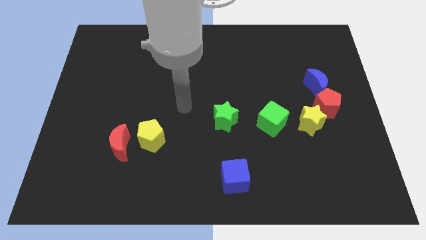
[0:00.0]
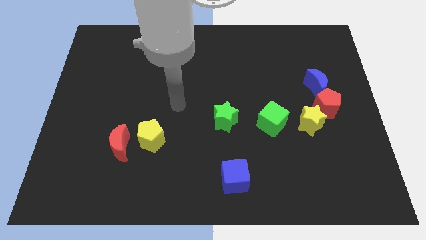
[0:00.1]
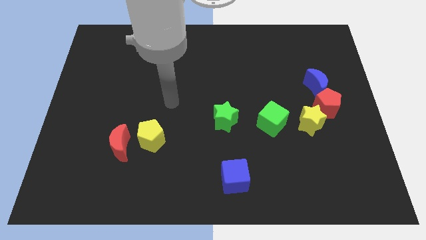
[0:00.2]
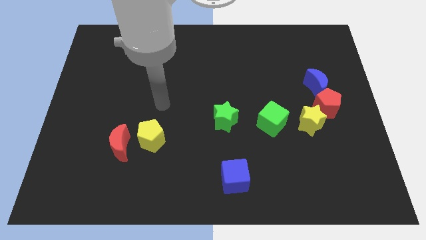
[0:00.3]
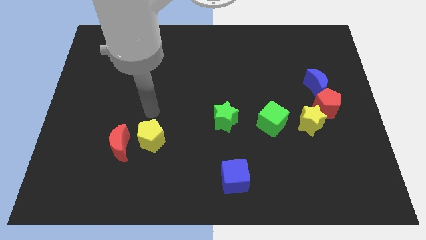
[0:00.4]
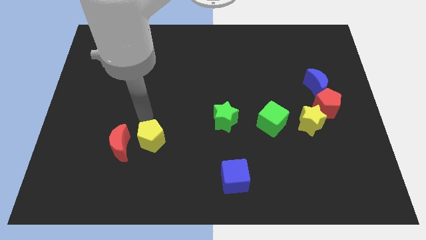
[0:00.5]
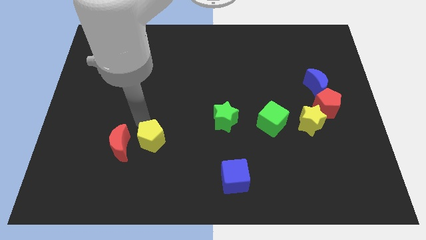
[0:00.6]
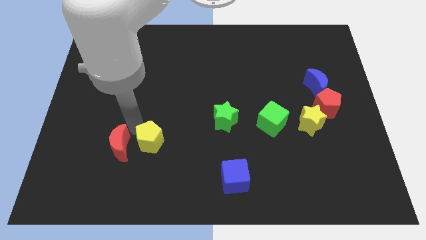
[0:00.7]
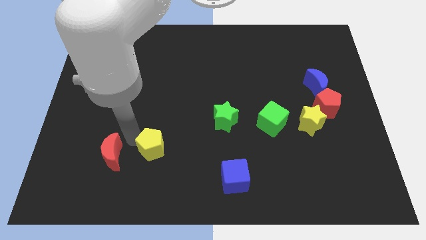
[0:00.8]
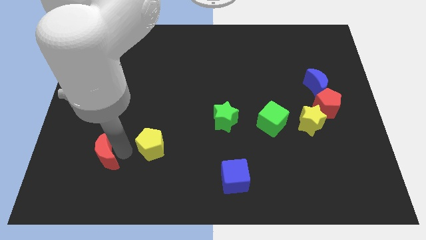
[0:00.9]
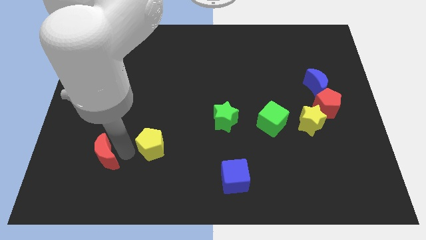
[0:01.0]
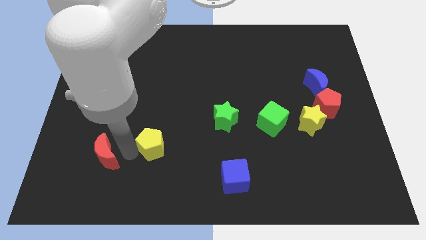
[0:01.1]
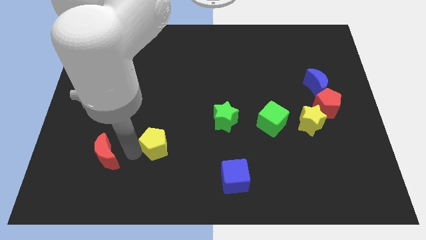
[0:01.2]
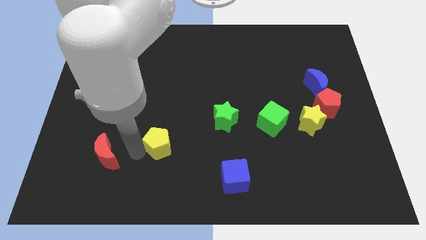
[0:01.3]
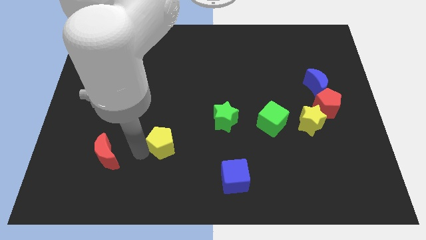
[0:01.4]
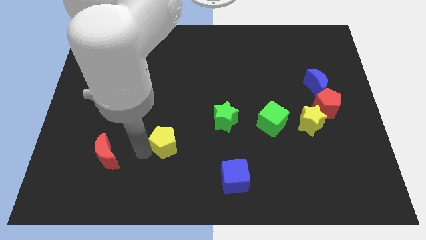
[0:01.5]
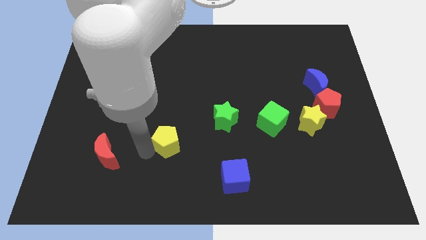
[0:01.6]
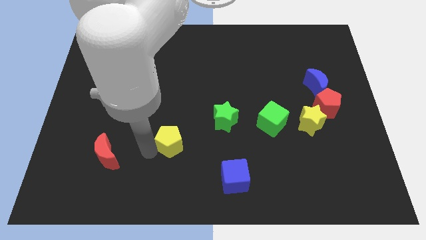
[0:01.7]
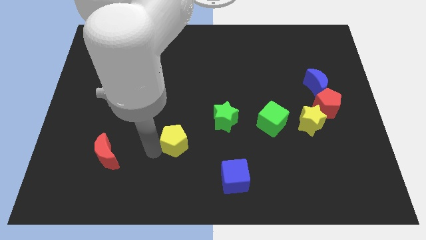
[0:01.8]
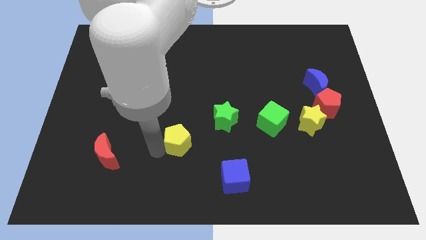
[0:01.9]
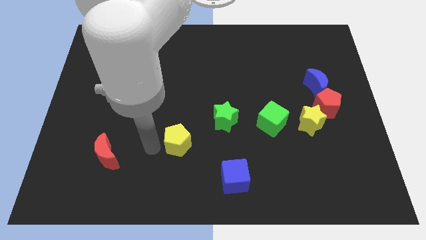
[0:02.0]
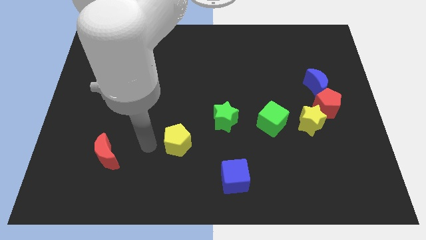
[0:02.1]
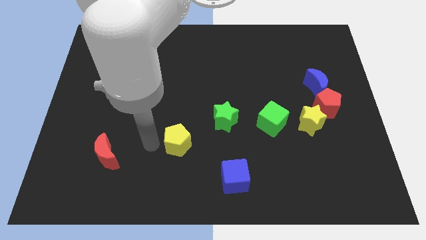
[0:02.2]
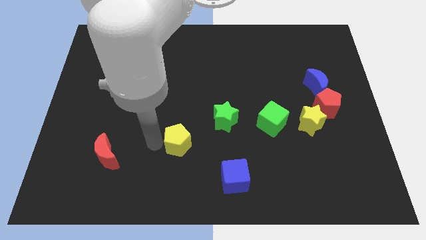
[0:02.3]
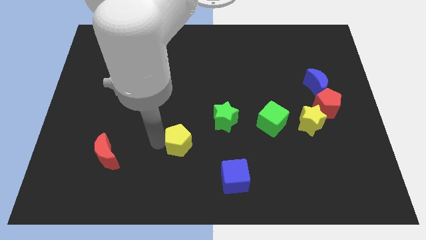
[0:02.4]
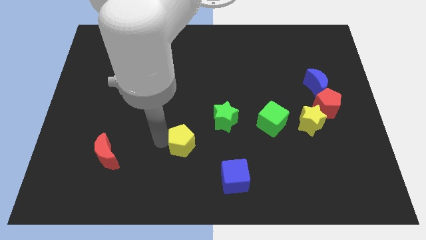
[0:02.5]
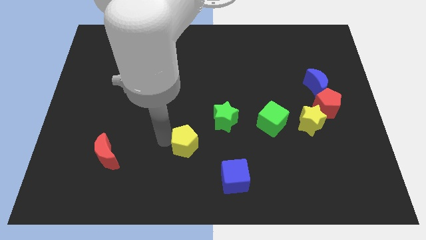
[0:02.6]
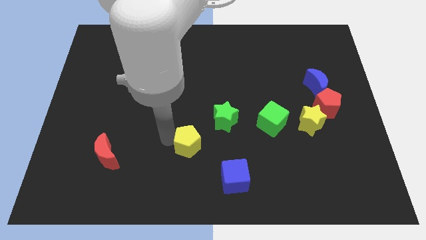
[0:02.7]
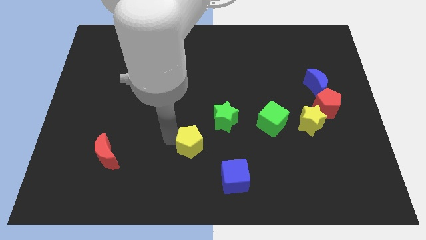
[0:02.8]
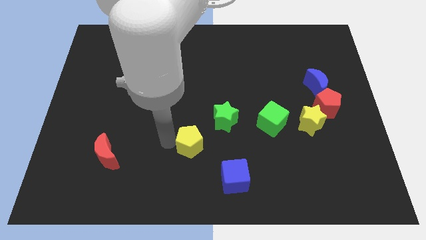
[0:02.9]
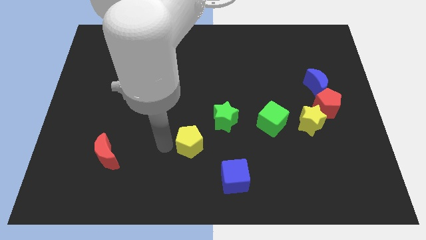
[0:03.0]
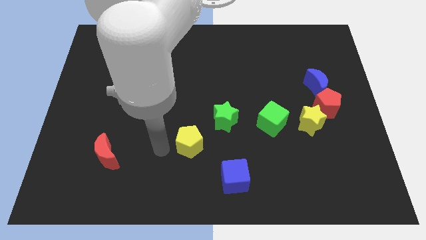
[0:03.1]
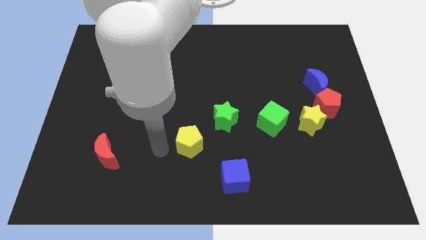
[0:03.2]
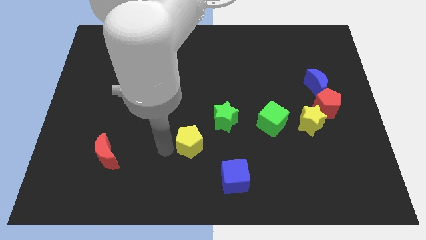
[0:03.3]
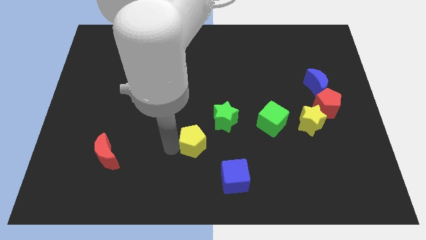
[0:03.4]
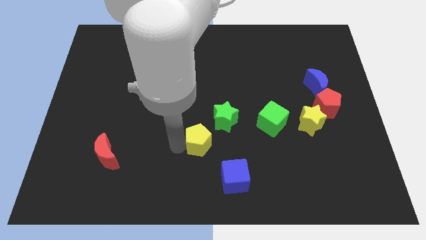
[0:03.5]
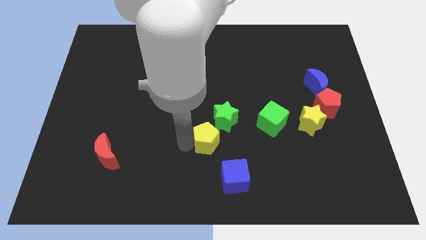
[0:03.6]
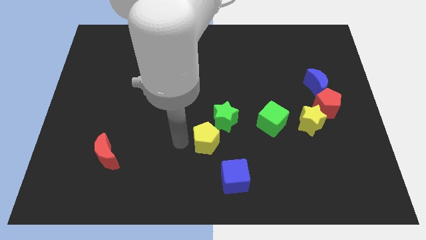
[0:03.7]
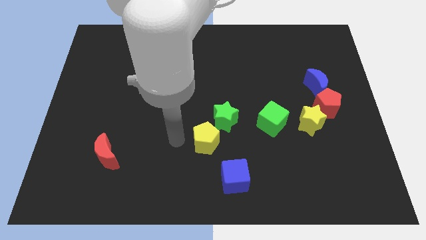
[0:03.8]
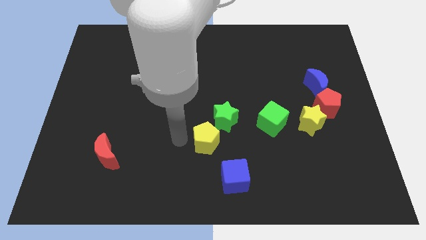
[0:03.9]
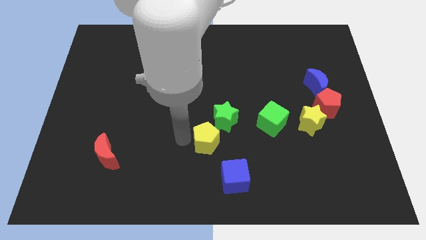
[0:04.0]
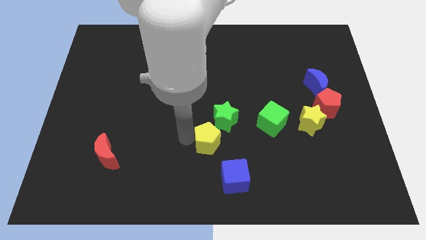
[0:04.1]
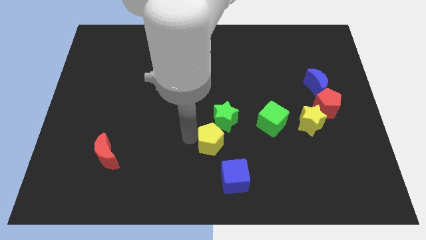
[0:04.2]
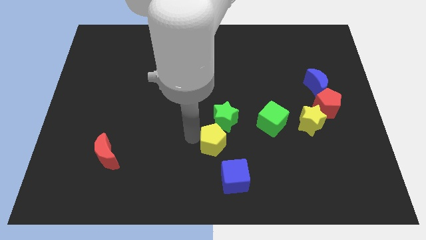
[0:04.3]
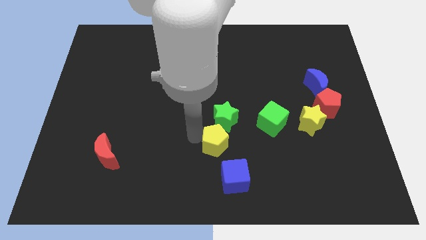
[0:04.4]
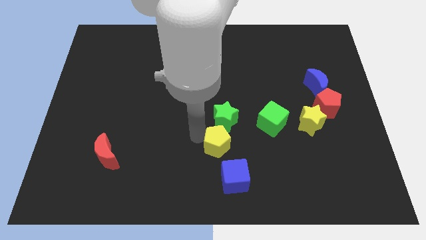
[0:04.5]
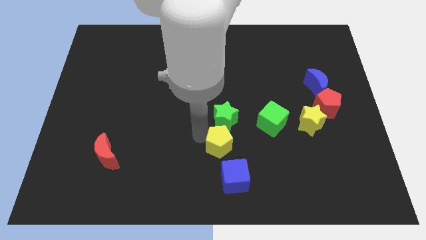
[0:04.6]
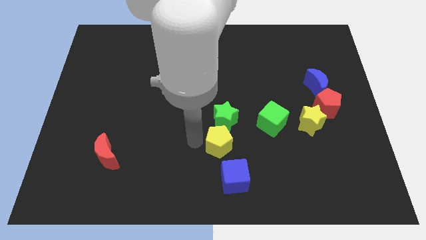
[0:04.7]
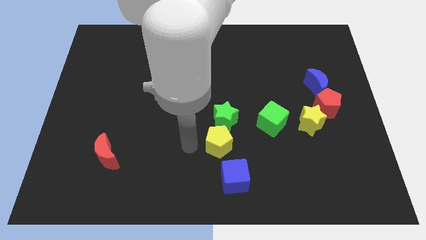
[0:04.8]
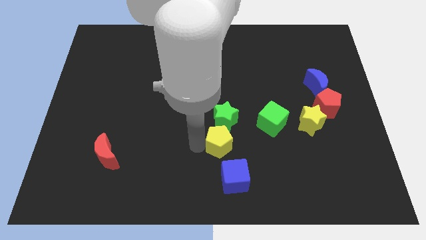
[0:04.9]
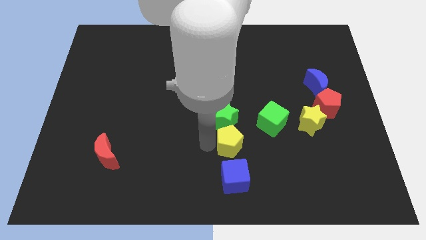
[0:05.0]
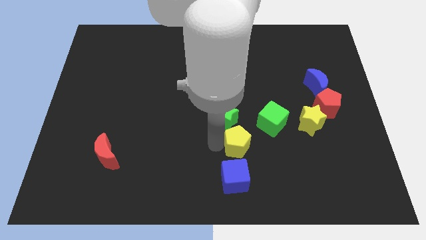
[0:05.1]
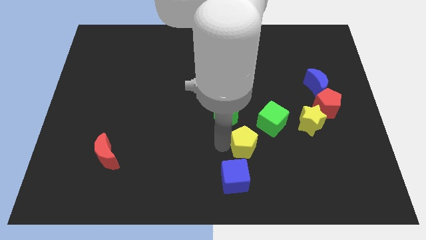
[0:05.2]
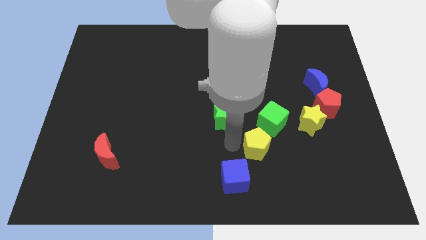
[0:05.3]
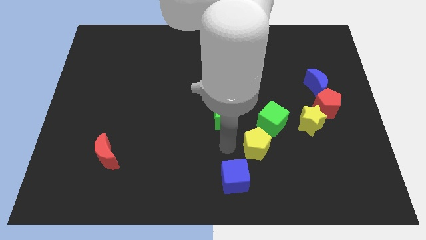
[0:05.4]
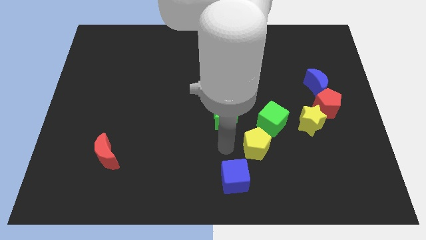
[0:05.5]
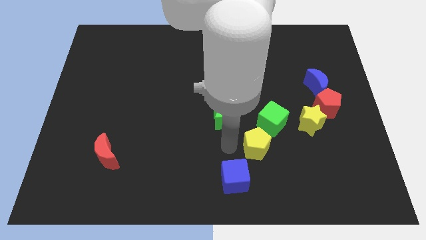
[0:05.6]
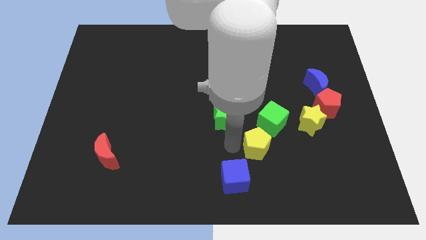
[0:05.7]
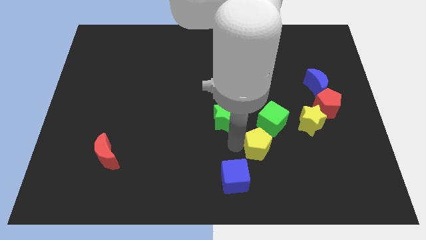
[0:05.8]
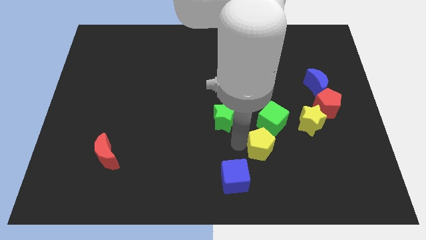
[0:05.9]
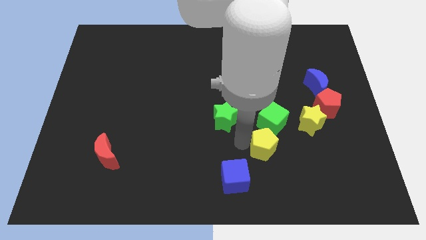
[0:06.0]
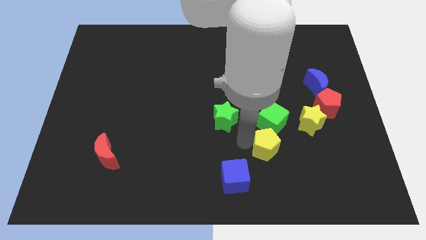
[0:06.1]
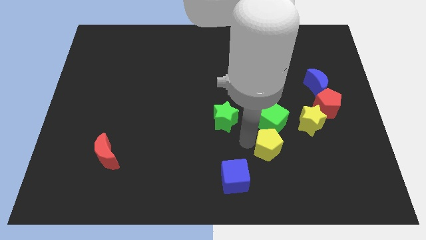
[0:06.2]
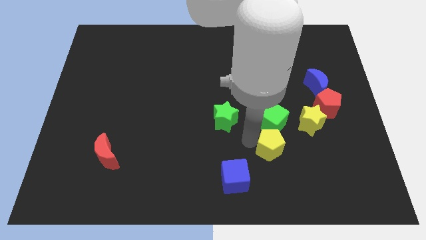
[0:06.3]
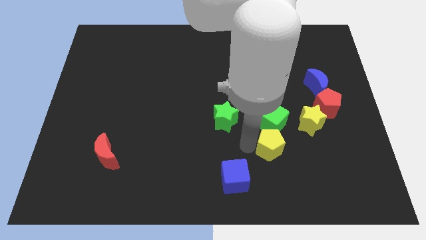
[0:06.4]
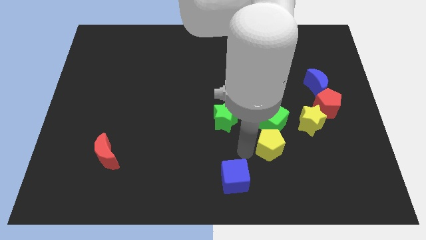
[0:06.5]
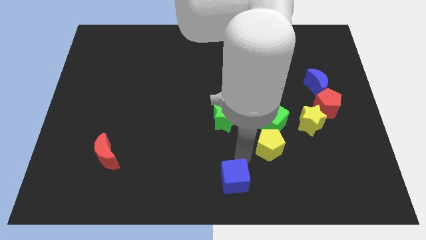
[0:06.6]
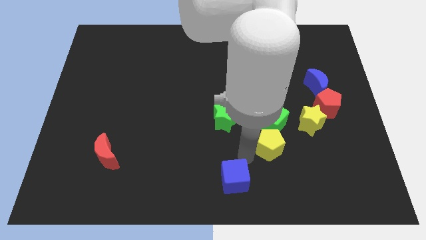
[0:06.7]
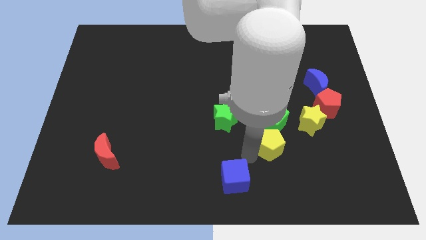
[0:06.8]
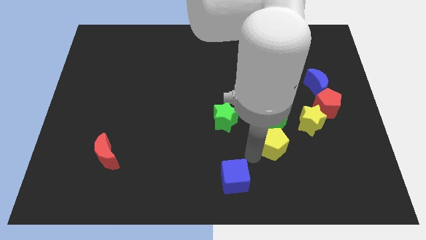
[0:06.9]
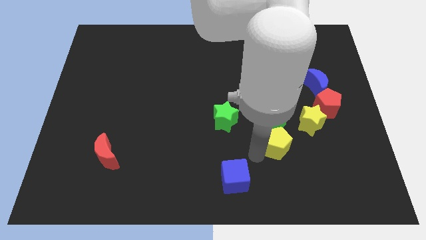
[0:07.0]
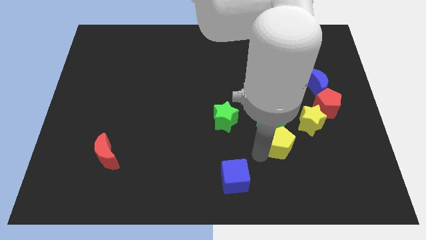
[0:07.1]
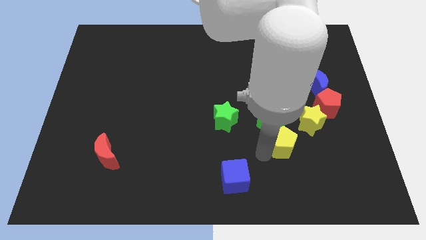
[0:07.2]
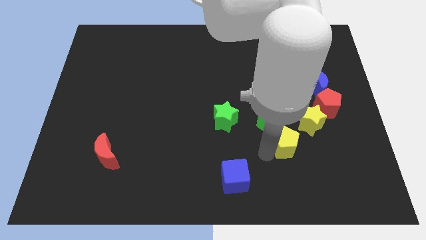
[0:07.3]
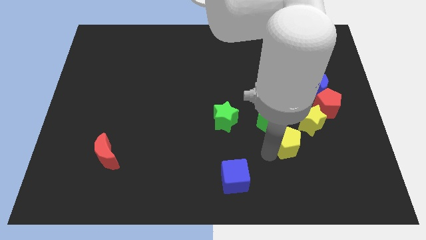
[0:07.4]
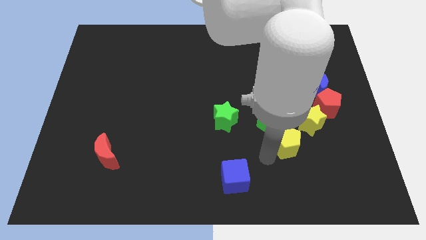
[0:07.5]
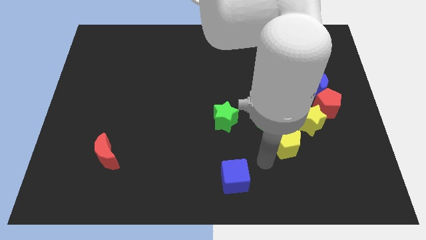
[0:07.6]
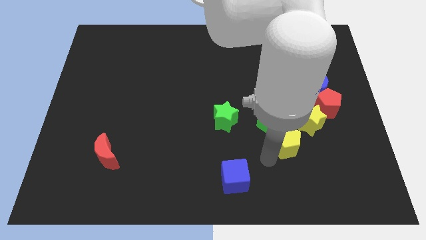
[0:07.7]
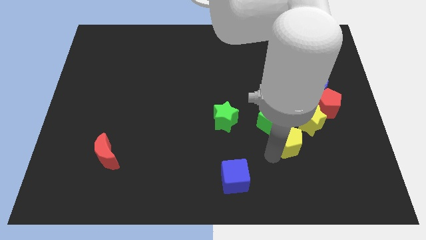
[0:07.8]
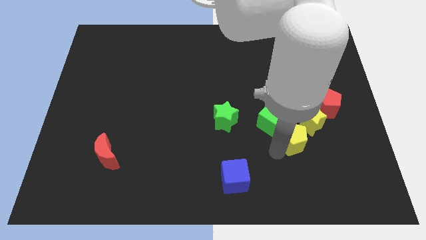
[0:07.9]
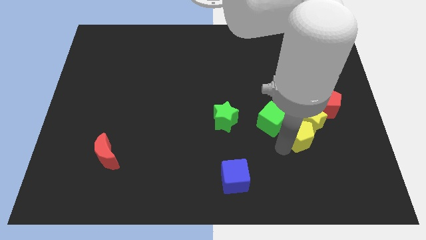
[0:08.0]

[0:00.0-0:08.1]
push the yellow pentagon diagonally down and to the left of the red pentagon
